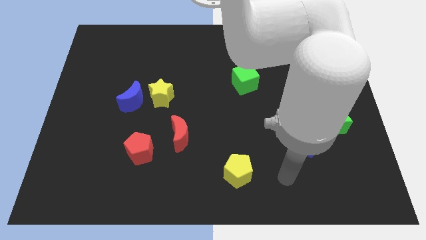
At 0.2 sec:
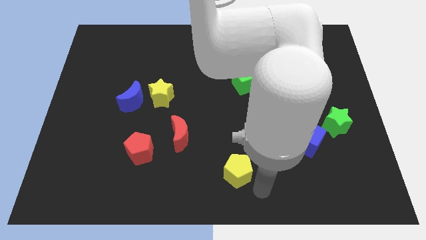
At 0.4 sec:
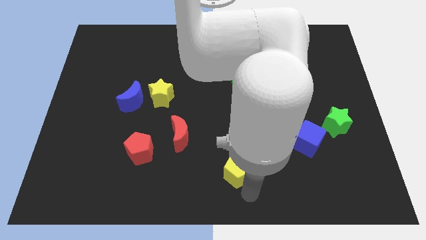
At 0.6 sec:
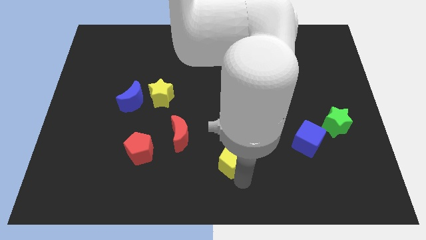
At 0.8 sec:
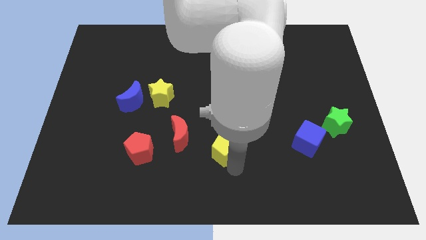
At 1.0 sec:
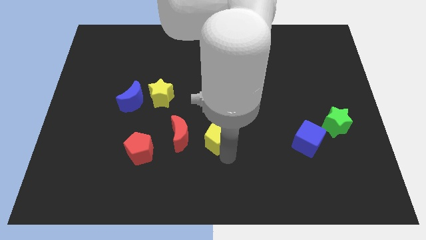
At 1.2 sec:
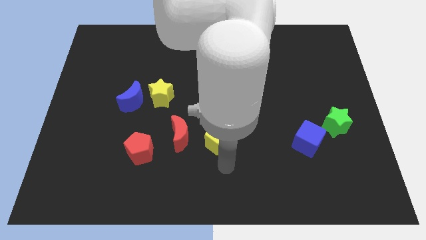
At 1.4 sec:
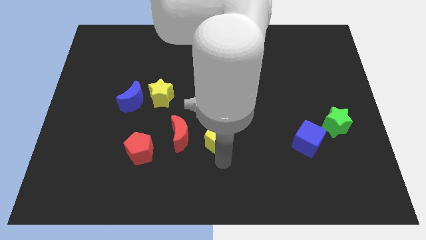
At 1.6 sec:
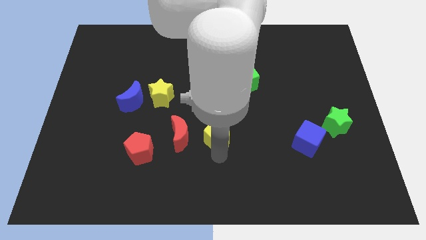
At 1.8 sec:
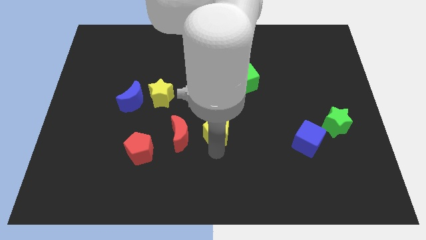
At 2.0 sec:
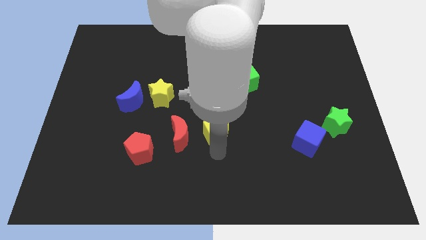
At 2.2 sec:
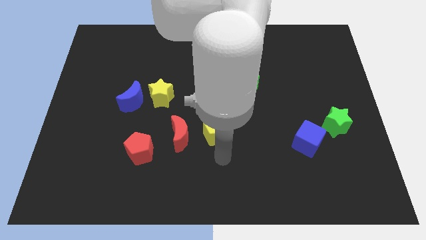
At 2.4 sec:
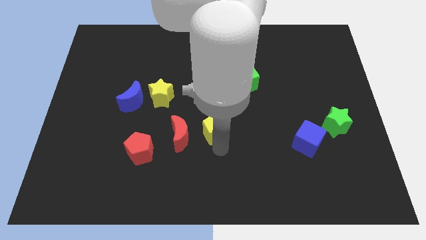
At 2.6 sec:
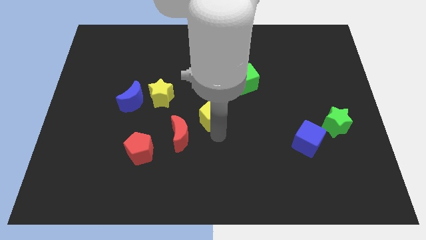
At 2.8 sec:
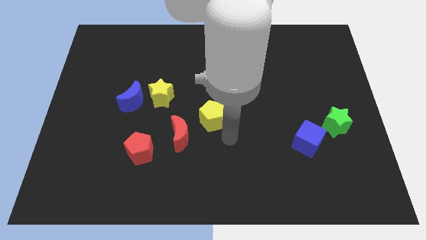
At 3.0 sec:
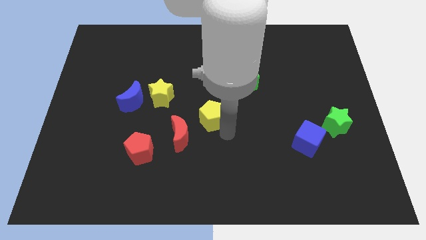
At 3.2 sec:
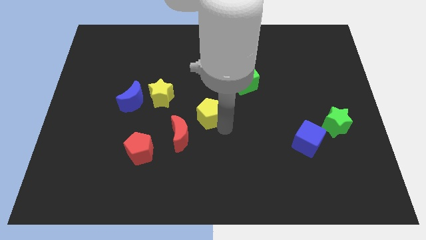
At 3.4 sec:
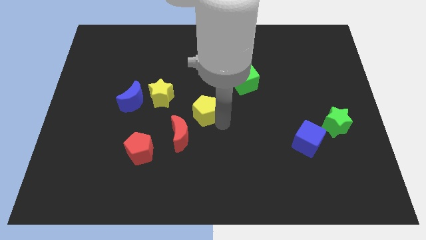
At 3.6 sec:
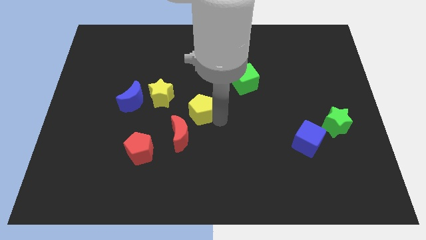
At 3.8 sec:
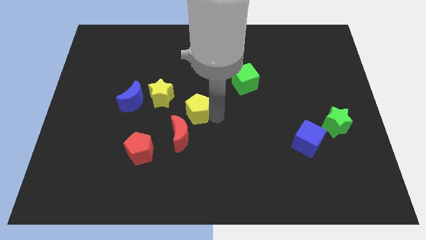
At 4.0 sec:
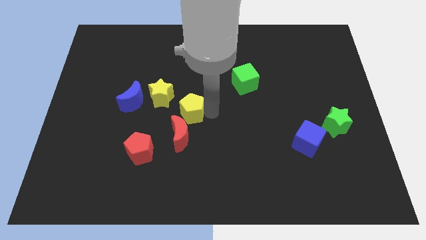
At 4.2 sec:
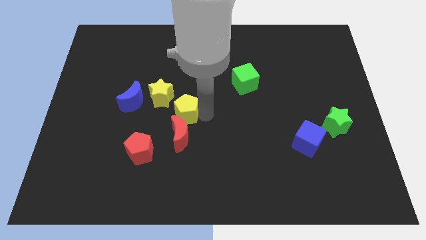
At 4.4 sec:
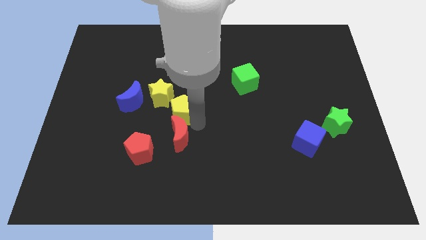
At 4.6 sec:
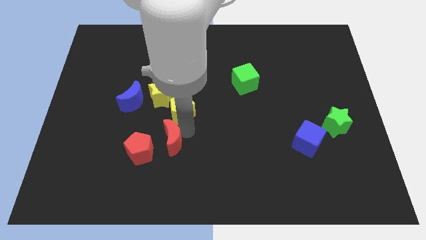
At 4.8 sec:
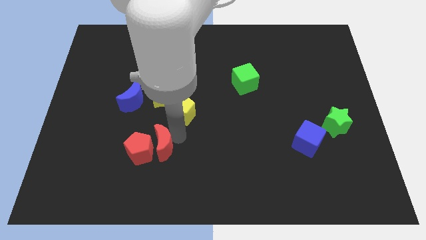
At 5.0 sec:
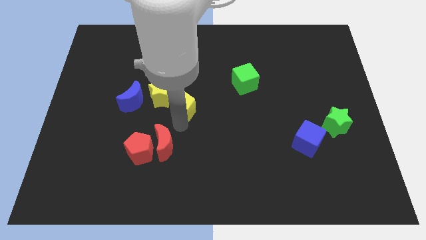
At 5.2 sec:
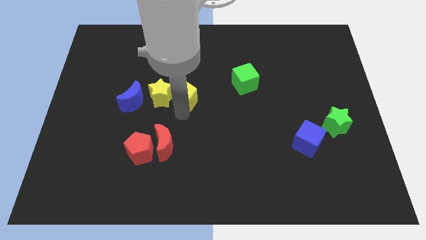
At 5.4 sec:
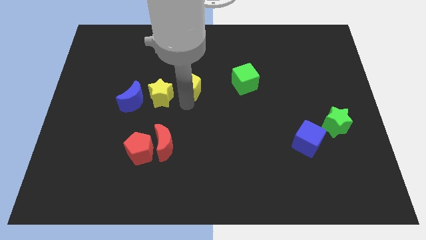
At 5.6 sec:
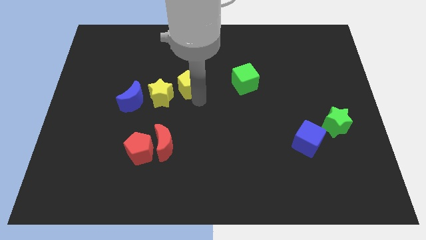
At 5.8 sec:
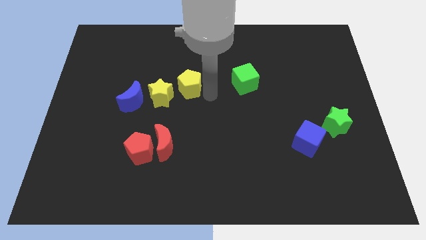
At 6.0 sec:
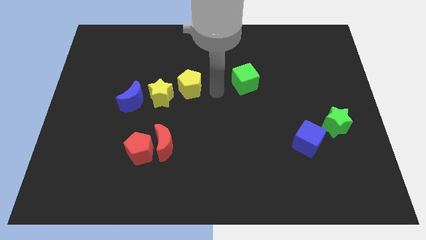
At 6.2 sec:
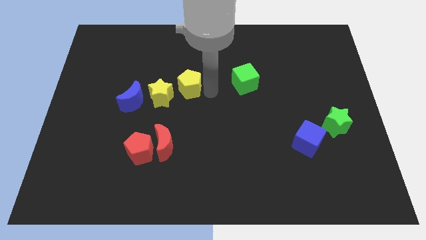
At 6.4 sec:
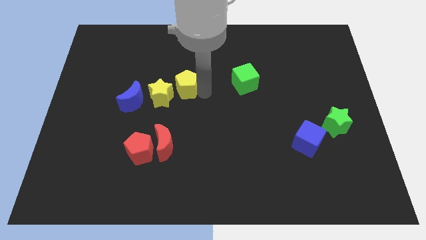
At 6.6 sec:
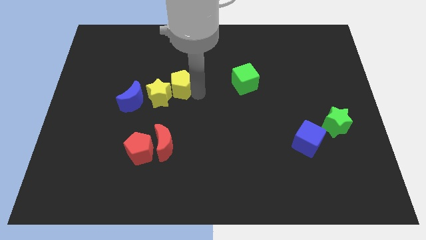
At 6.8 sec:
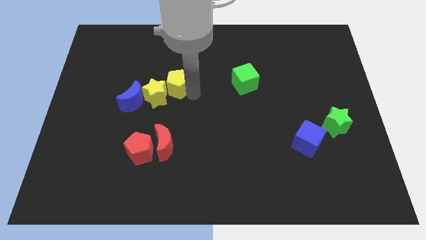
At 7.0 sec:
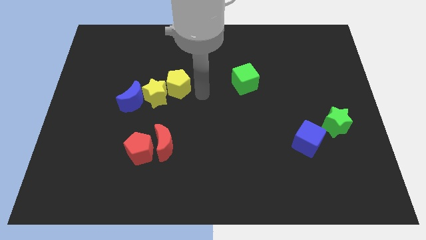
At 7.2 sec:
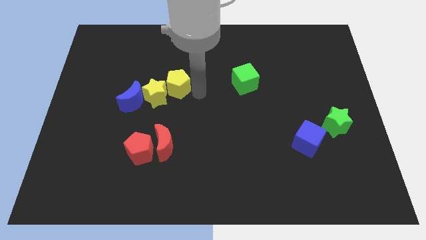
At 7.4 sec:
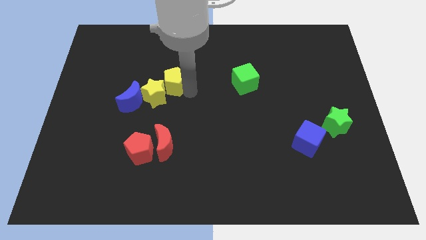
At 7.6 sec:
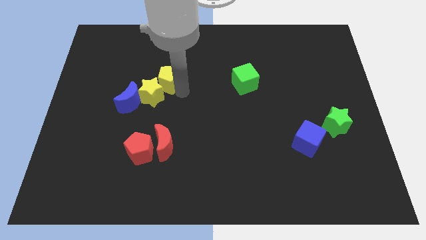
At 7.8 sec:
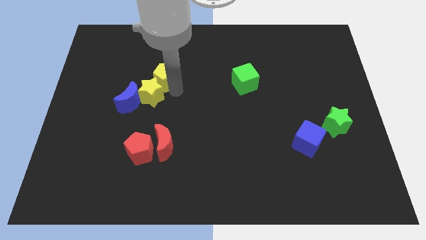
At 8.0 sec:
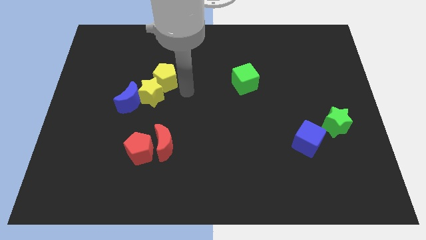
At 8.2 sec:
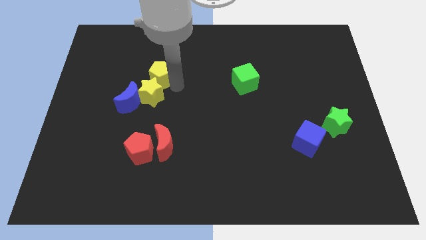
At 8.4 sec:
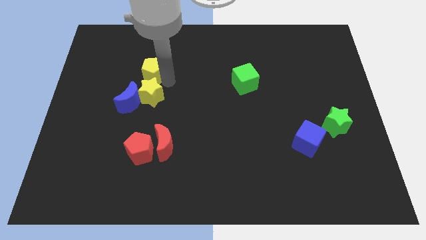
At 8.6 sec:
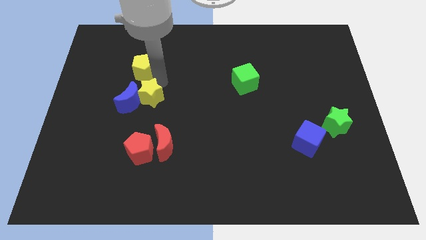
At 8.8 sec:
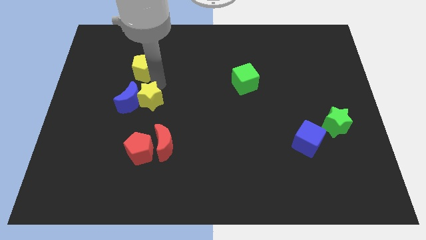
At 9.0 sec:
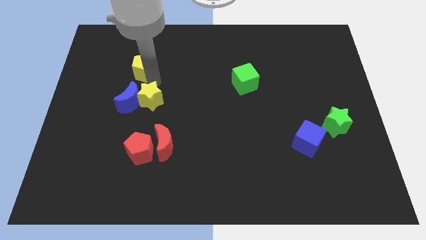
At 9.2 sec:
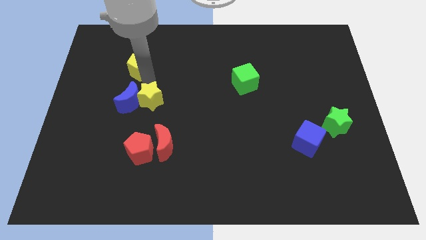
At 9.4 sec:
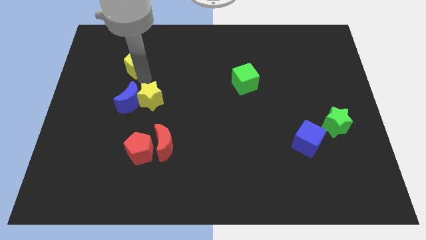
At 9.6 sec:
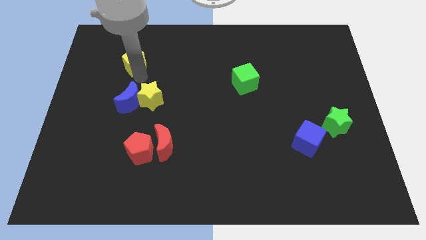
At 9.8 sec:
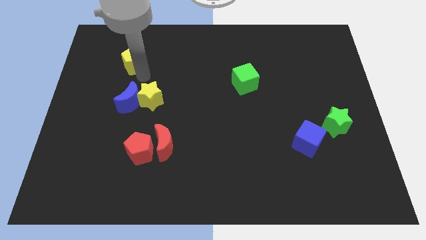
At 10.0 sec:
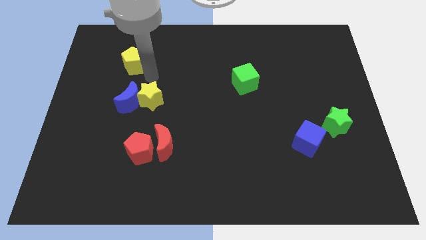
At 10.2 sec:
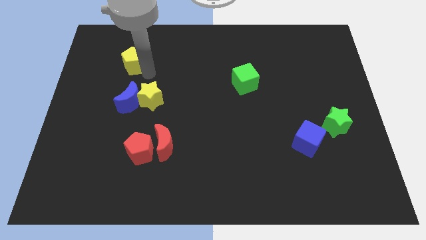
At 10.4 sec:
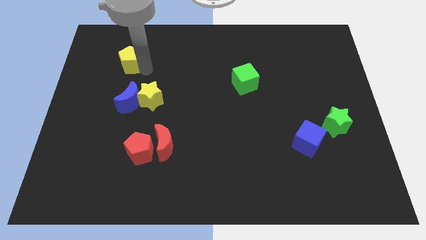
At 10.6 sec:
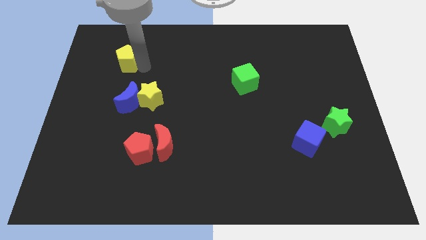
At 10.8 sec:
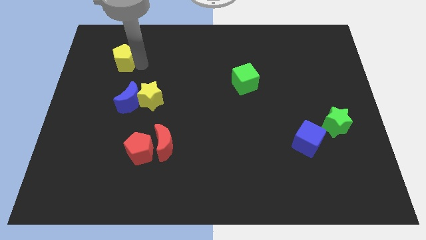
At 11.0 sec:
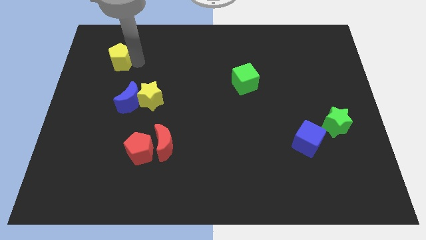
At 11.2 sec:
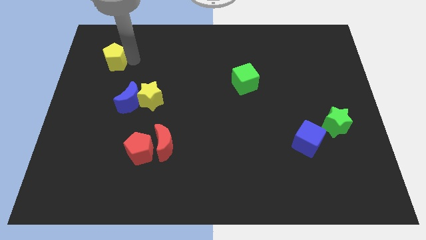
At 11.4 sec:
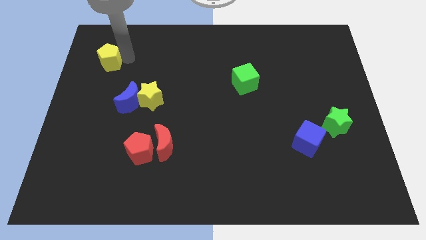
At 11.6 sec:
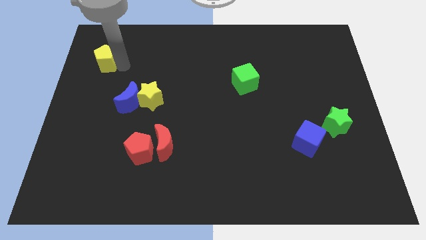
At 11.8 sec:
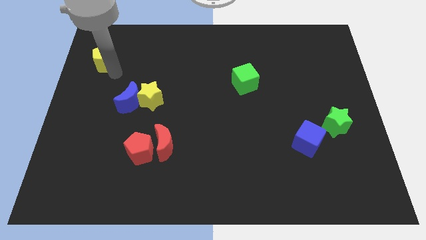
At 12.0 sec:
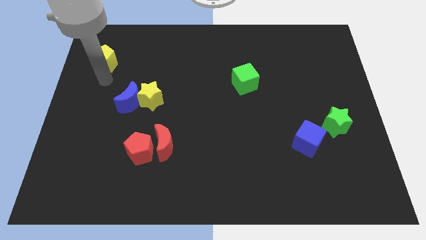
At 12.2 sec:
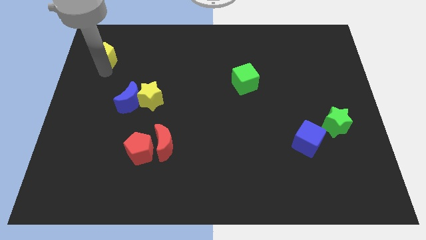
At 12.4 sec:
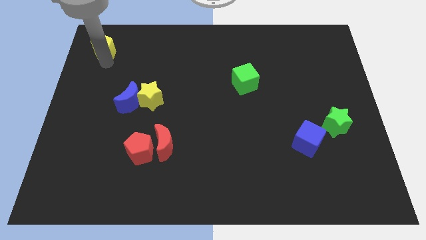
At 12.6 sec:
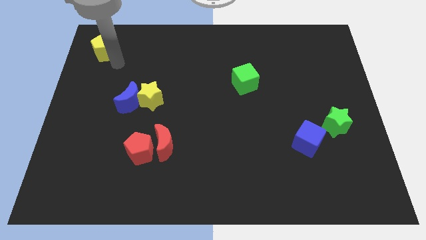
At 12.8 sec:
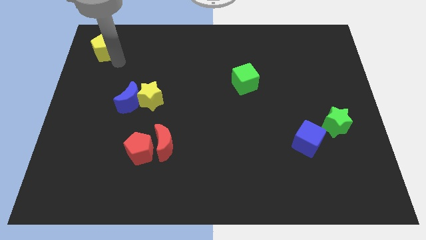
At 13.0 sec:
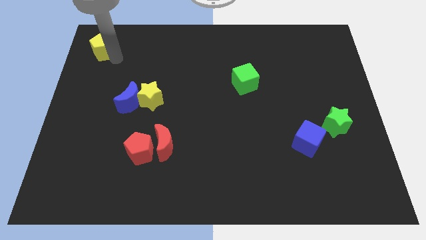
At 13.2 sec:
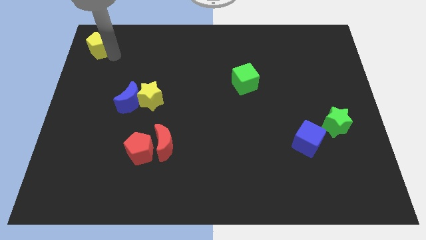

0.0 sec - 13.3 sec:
move the yellow pentagon to the top left of the board

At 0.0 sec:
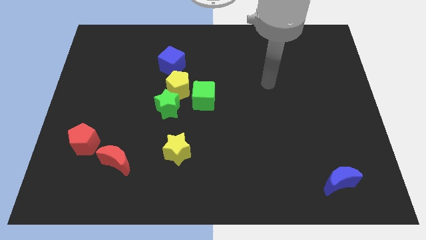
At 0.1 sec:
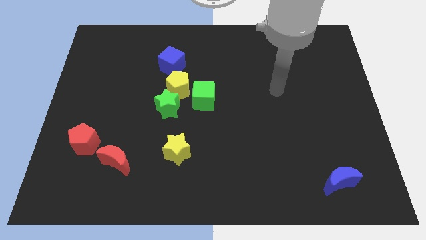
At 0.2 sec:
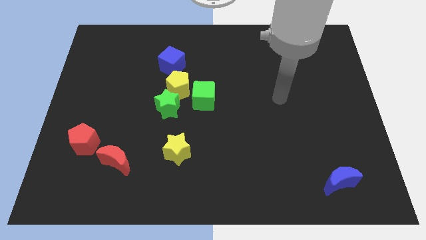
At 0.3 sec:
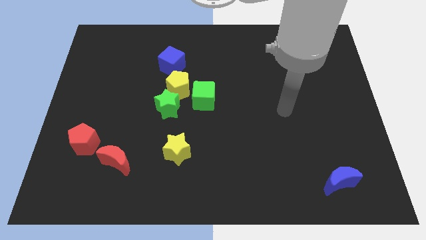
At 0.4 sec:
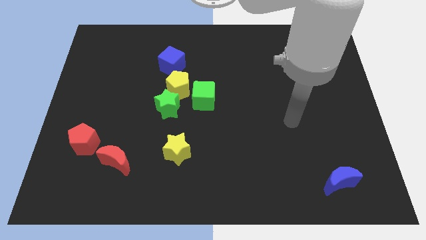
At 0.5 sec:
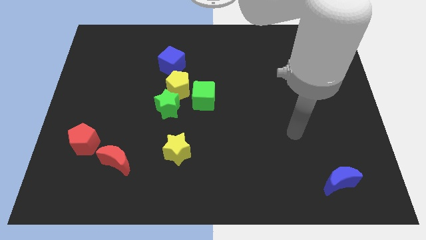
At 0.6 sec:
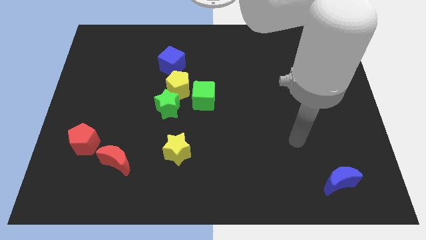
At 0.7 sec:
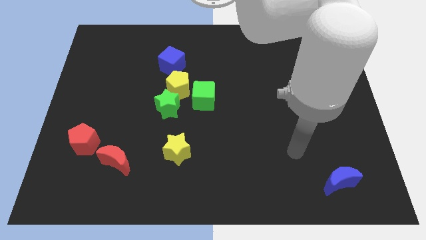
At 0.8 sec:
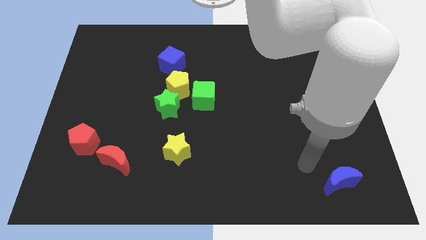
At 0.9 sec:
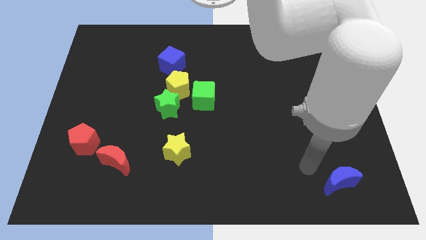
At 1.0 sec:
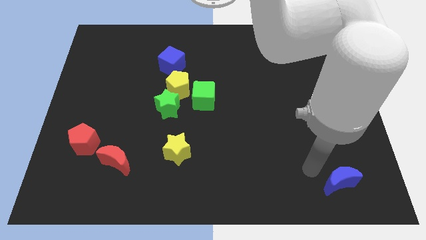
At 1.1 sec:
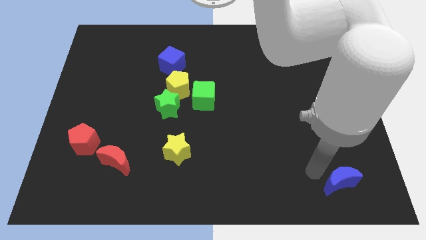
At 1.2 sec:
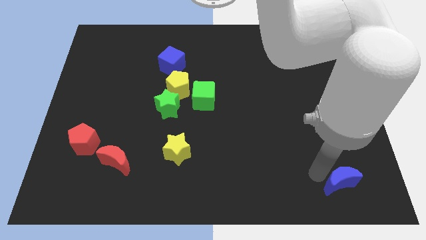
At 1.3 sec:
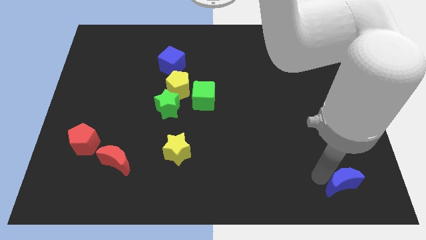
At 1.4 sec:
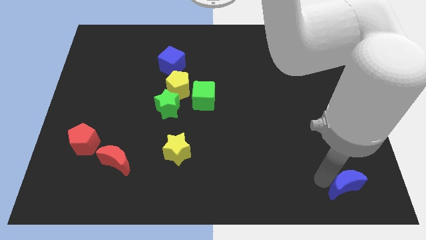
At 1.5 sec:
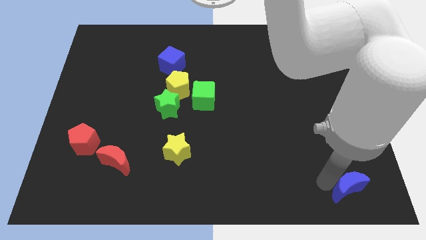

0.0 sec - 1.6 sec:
slide the blue moon to the bottom right
